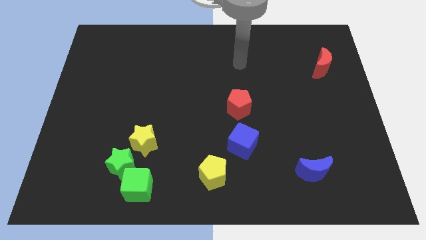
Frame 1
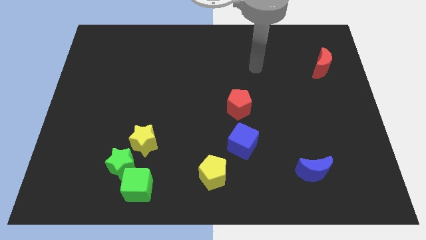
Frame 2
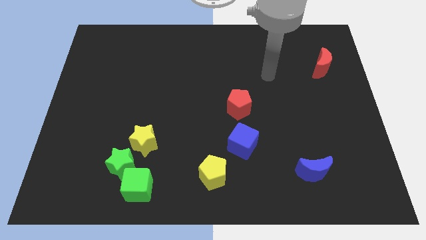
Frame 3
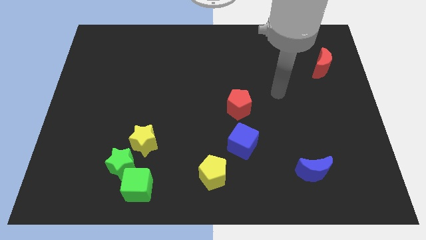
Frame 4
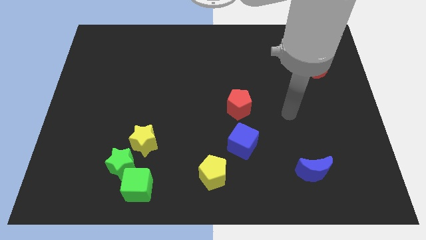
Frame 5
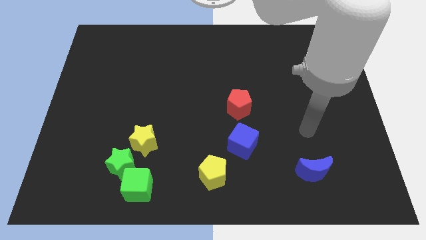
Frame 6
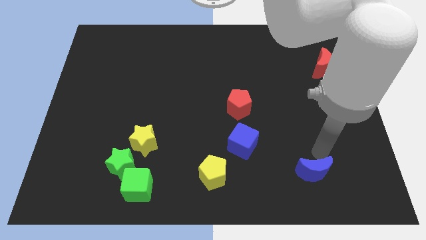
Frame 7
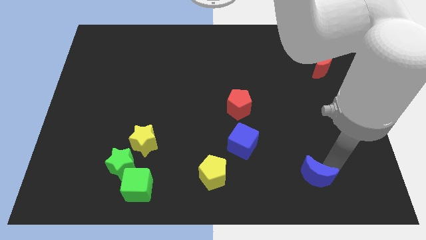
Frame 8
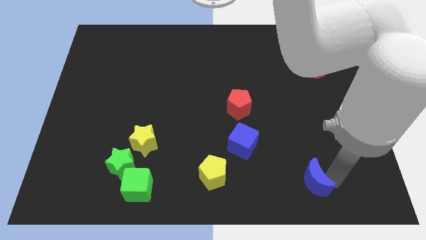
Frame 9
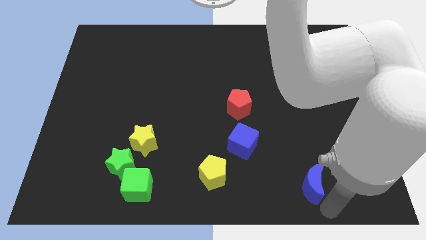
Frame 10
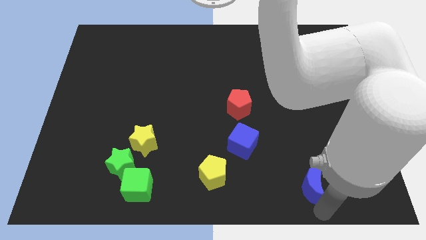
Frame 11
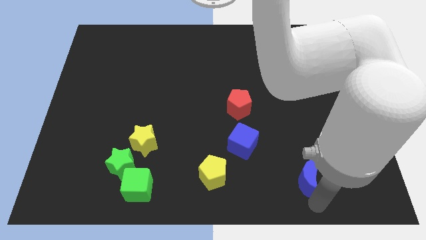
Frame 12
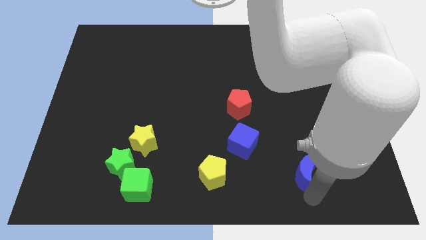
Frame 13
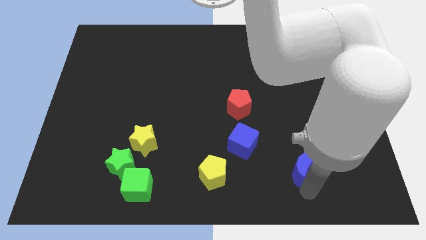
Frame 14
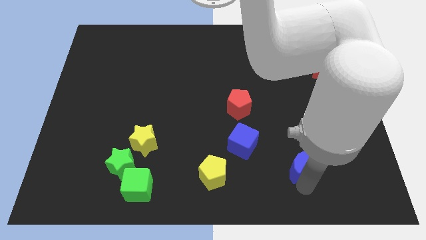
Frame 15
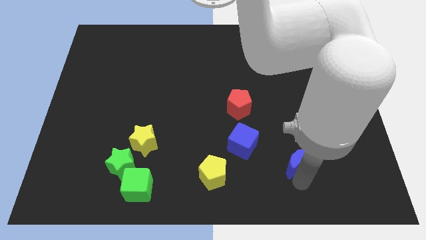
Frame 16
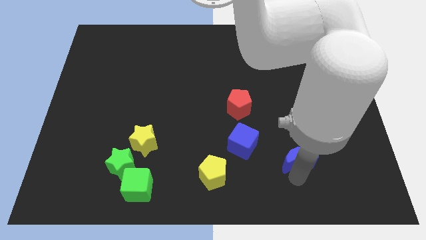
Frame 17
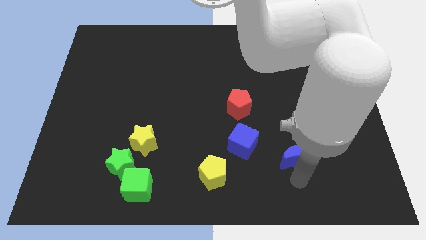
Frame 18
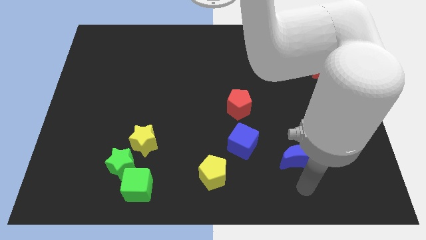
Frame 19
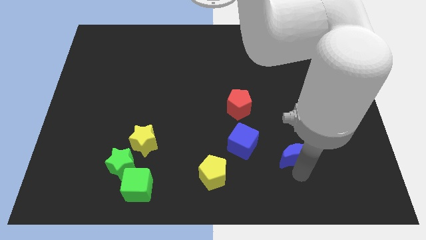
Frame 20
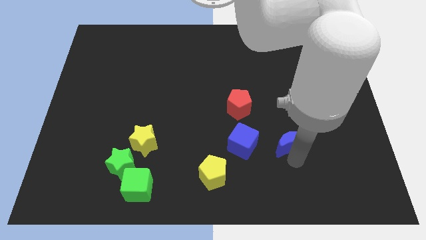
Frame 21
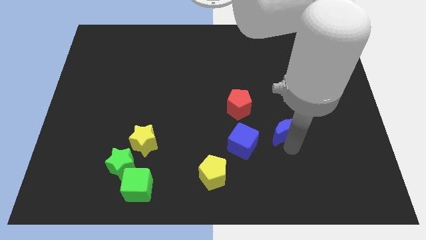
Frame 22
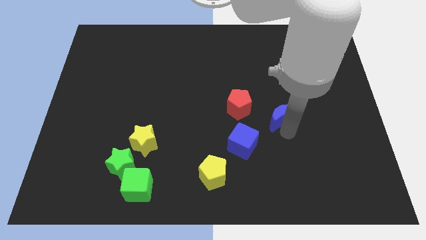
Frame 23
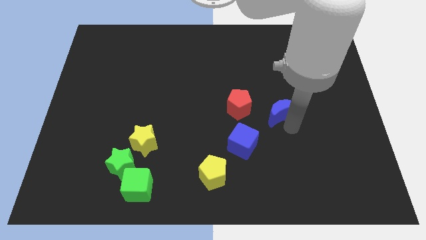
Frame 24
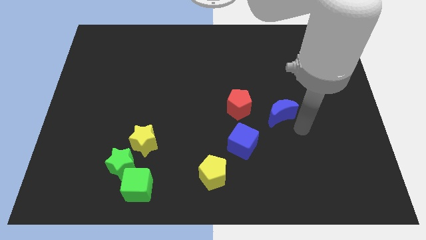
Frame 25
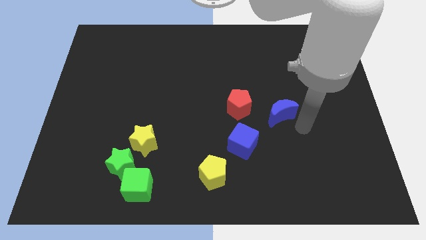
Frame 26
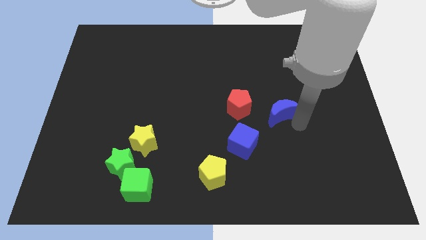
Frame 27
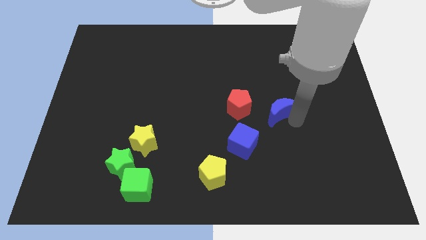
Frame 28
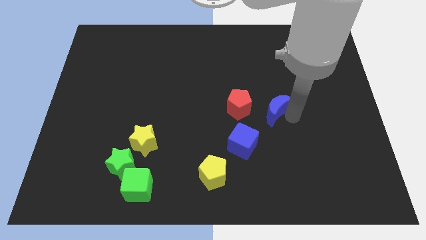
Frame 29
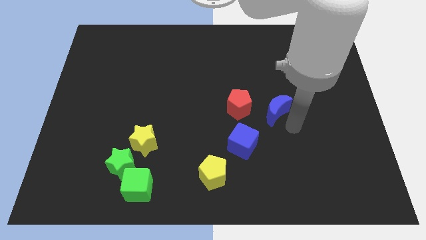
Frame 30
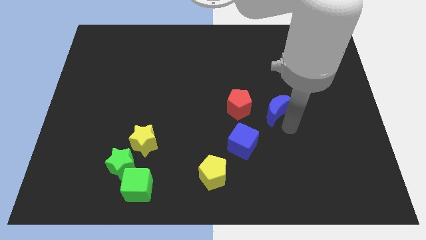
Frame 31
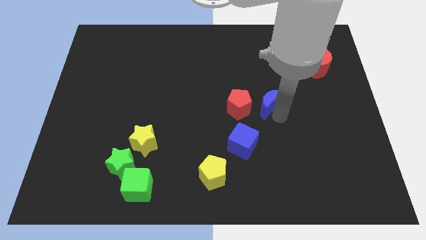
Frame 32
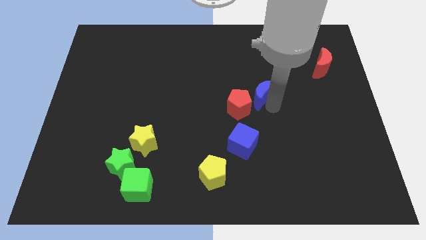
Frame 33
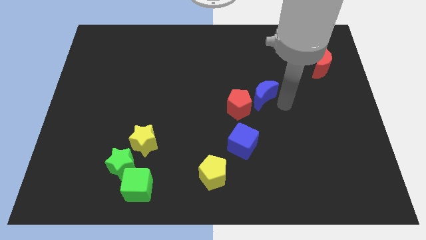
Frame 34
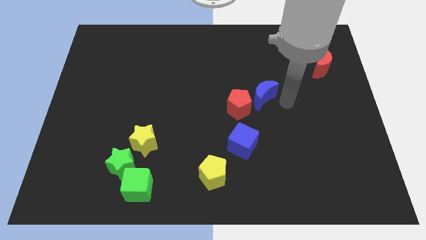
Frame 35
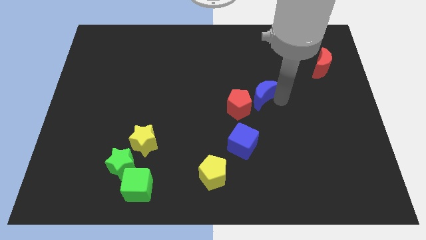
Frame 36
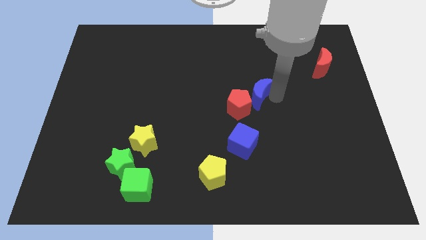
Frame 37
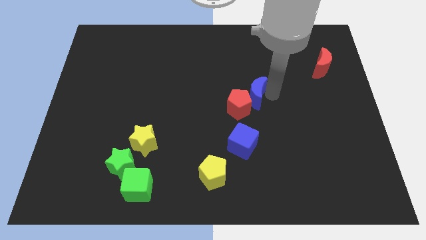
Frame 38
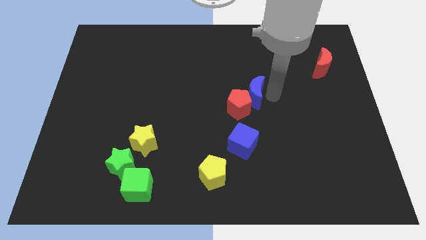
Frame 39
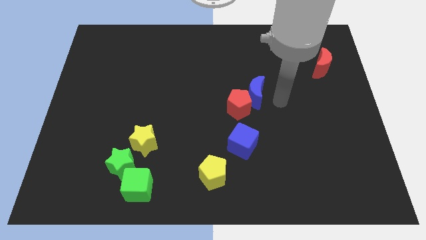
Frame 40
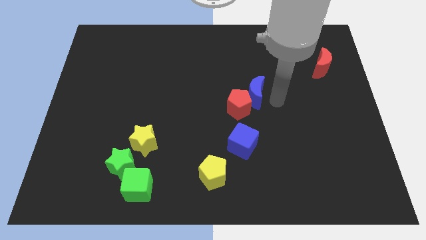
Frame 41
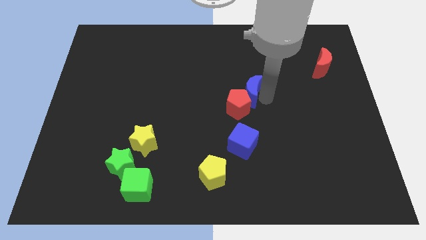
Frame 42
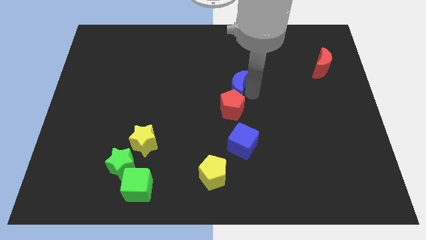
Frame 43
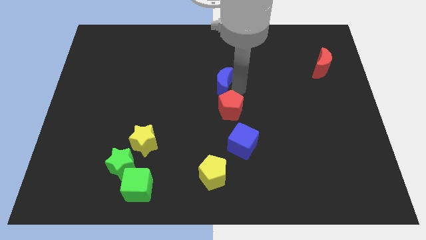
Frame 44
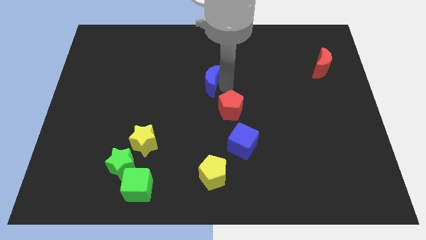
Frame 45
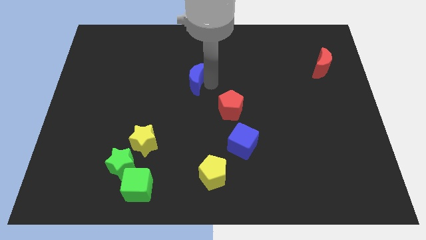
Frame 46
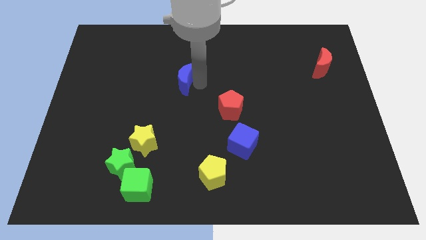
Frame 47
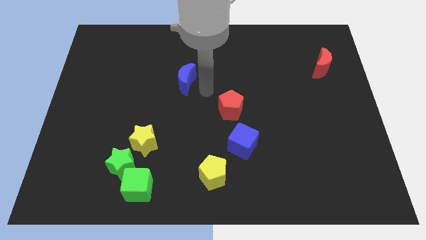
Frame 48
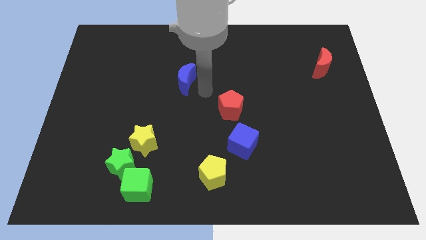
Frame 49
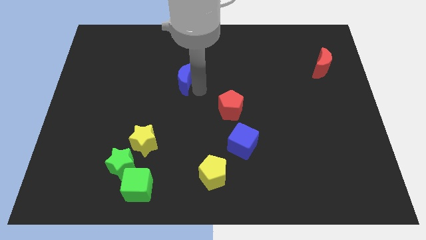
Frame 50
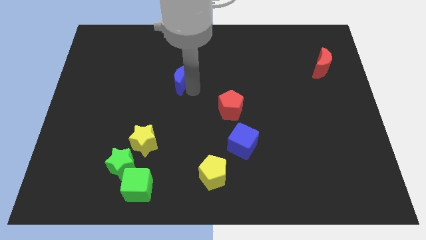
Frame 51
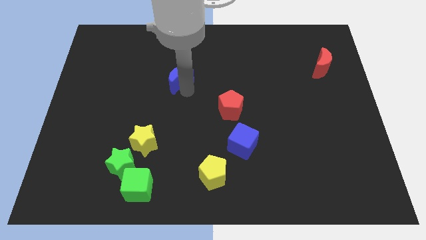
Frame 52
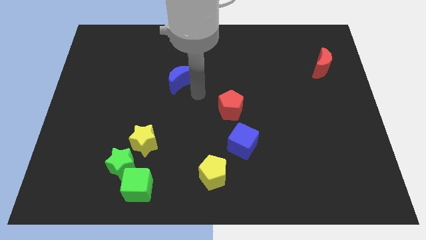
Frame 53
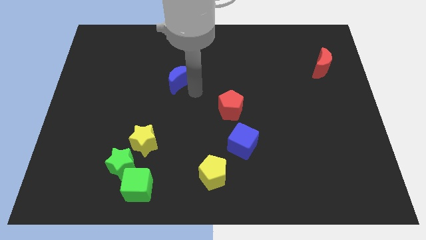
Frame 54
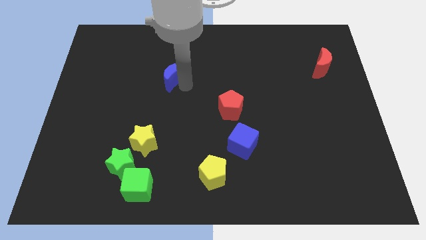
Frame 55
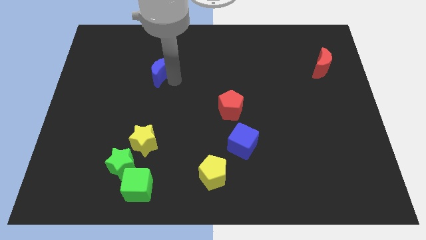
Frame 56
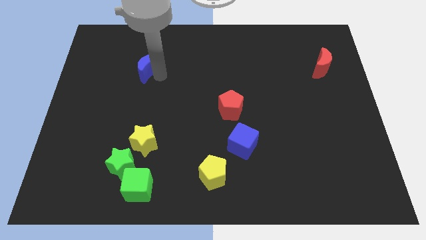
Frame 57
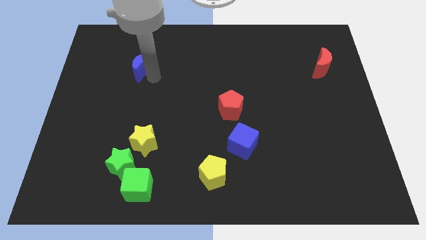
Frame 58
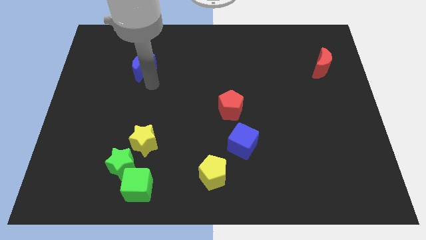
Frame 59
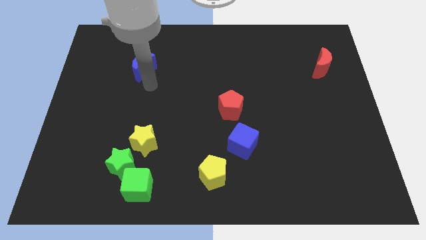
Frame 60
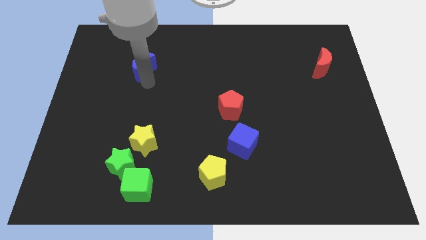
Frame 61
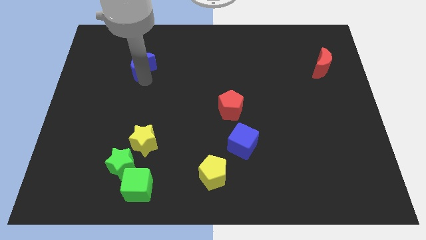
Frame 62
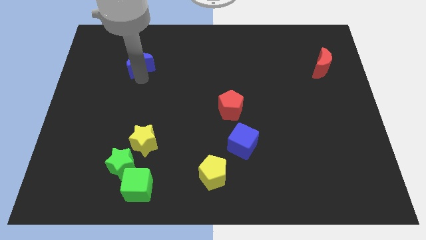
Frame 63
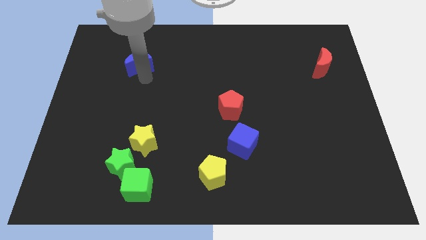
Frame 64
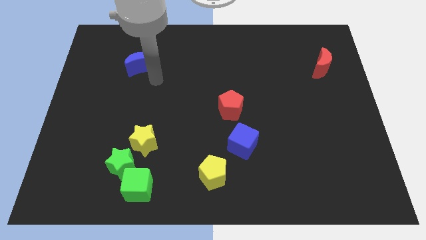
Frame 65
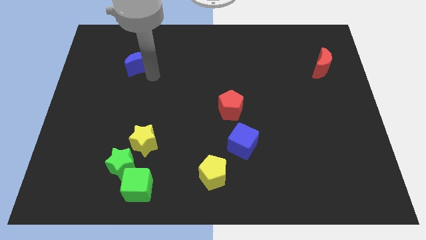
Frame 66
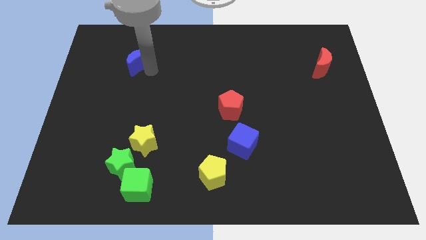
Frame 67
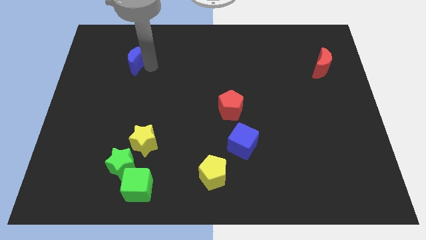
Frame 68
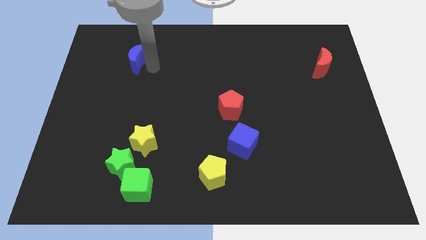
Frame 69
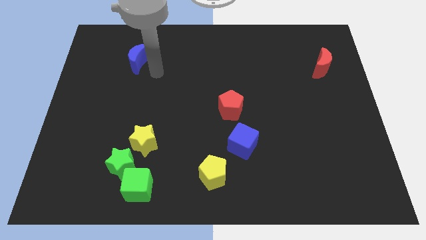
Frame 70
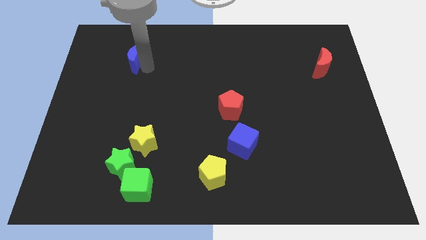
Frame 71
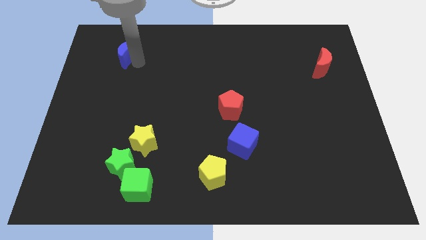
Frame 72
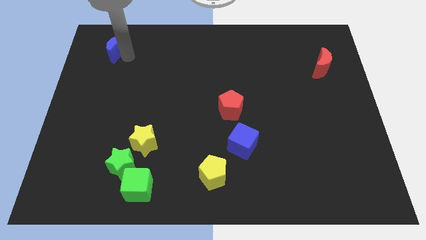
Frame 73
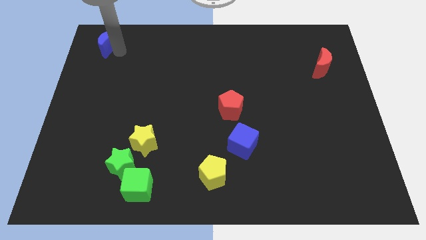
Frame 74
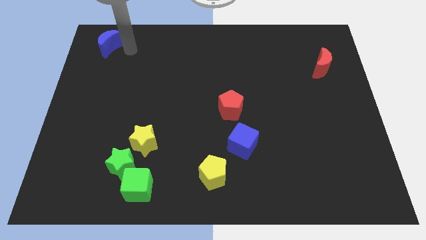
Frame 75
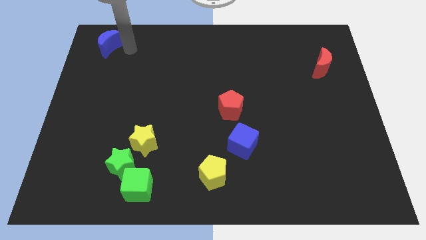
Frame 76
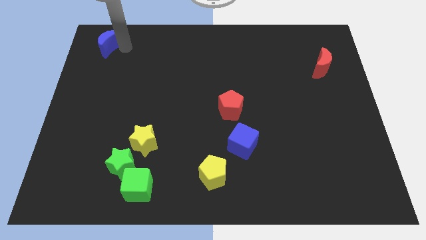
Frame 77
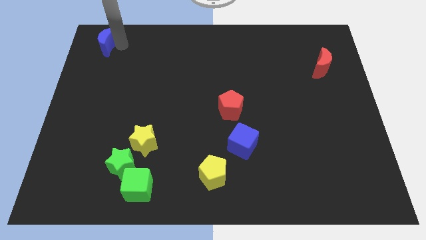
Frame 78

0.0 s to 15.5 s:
move the blue moon to the upper left corner

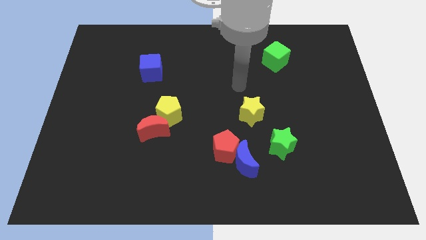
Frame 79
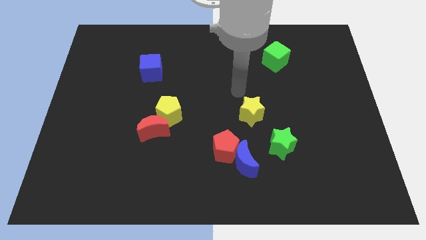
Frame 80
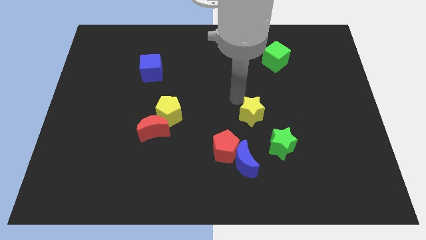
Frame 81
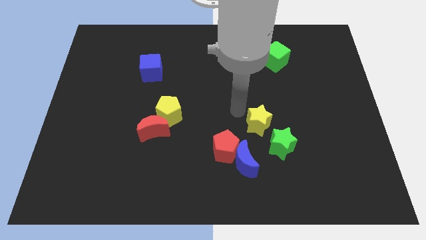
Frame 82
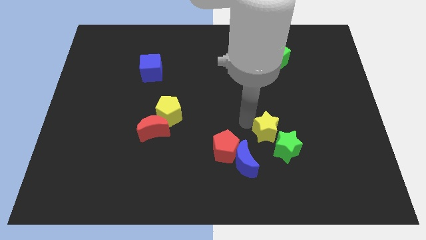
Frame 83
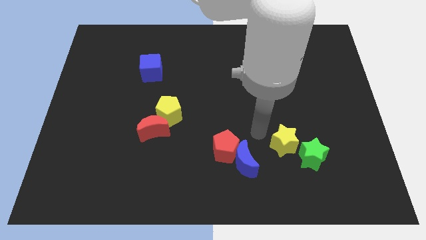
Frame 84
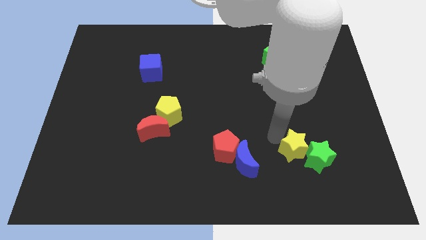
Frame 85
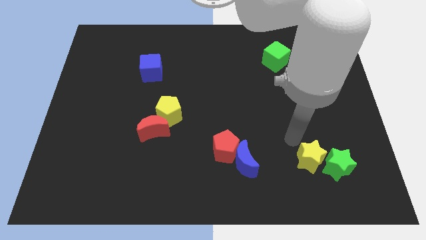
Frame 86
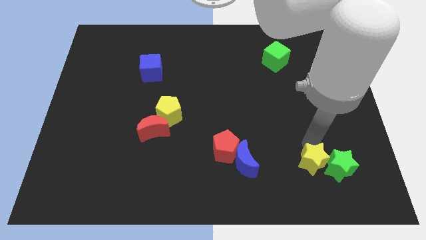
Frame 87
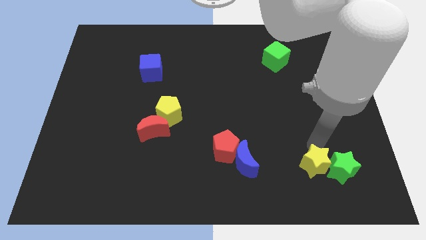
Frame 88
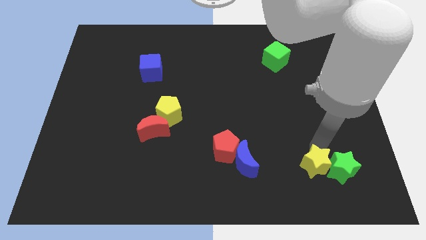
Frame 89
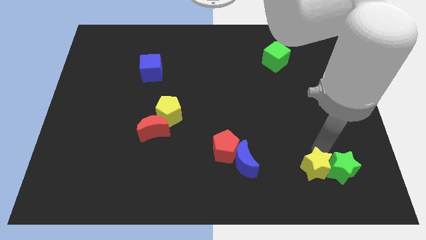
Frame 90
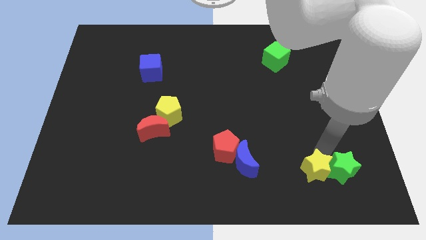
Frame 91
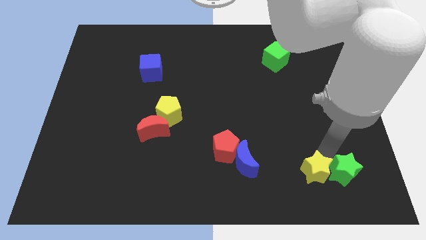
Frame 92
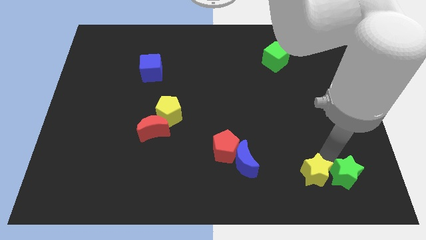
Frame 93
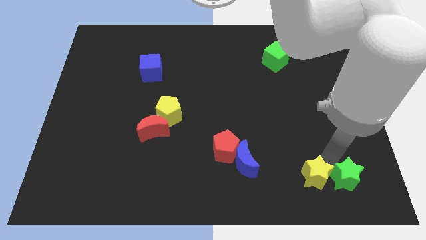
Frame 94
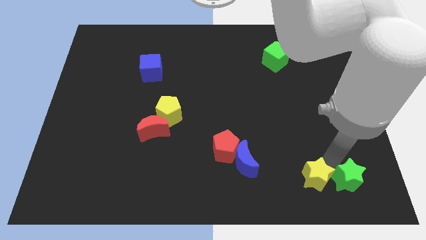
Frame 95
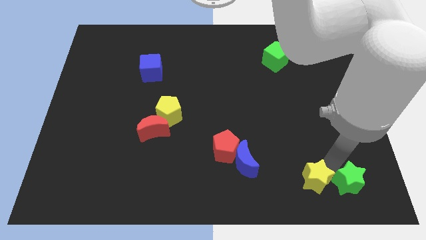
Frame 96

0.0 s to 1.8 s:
put the green star to the bottom right corner
